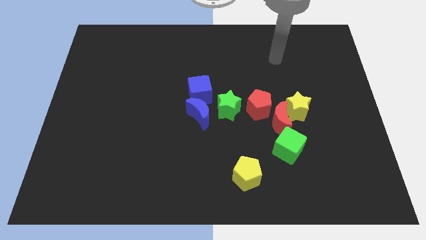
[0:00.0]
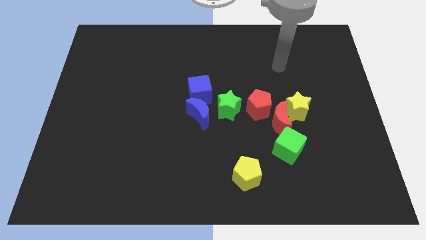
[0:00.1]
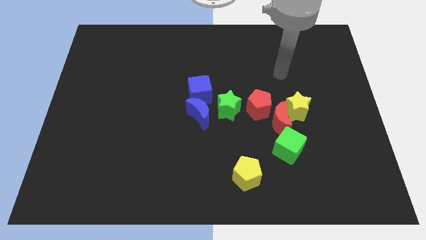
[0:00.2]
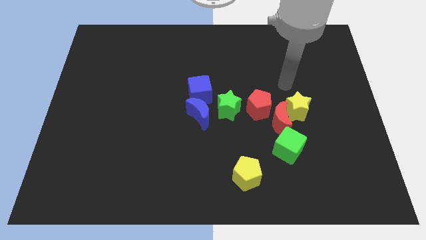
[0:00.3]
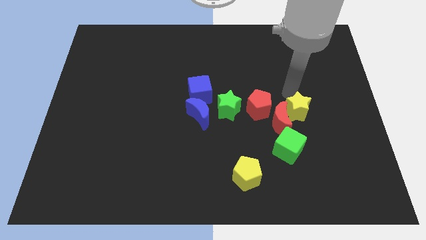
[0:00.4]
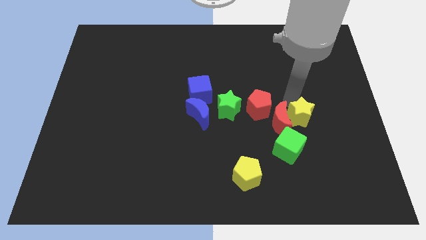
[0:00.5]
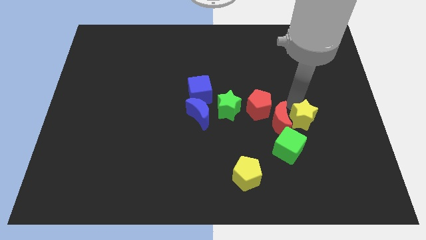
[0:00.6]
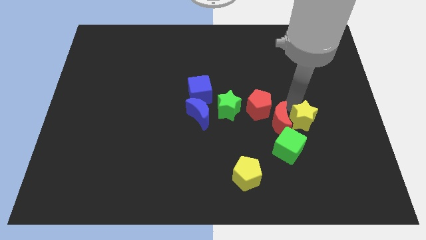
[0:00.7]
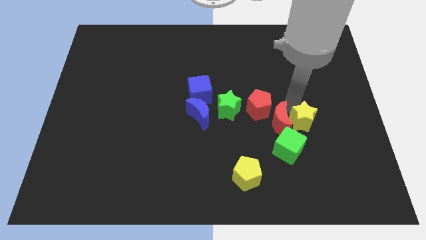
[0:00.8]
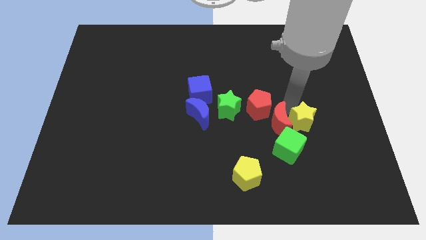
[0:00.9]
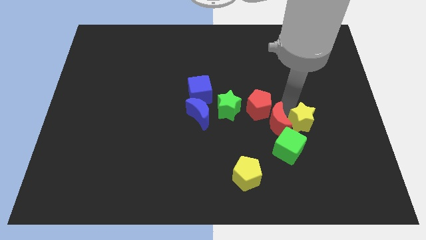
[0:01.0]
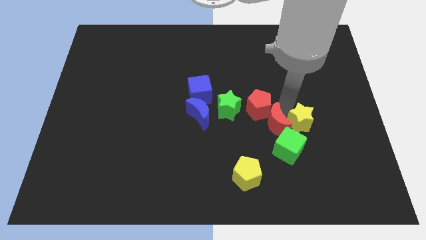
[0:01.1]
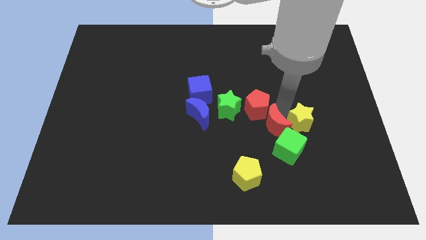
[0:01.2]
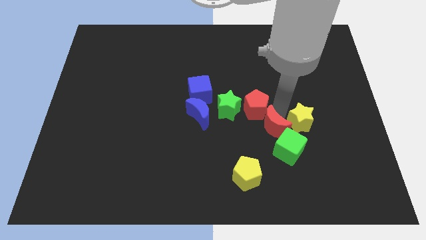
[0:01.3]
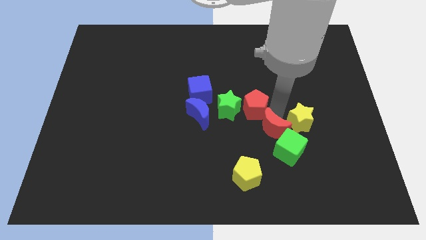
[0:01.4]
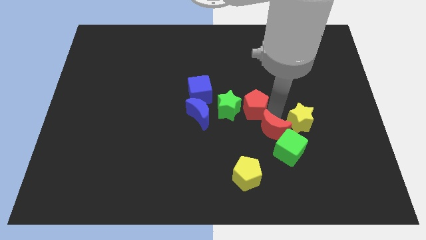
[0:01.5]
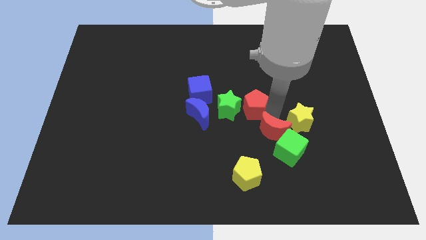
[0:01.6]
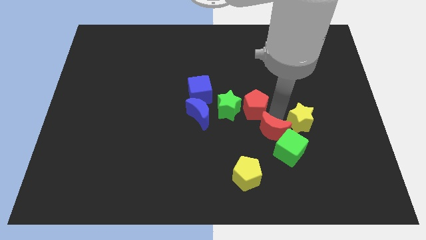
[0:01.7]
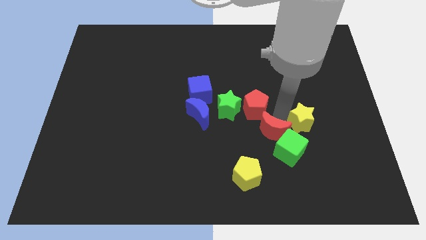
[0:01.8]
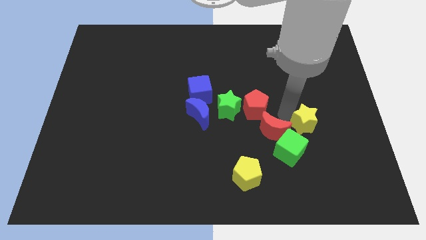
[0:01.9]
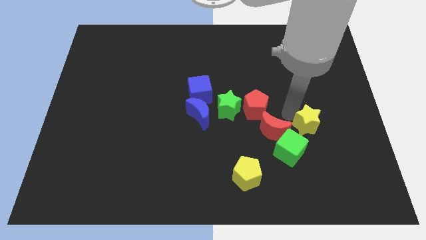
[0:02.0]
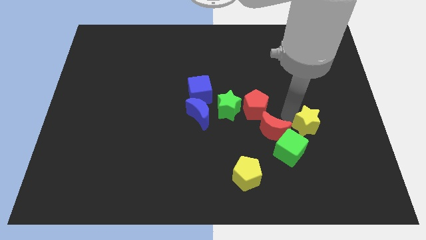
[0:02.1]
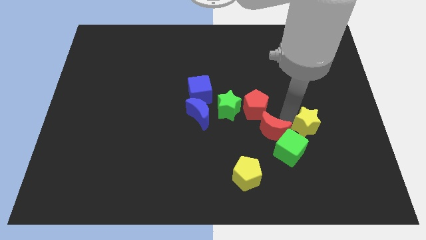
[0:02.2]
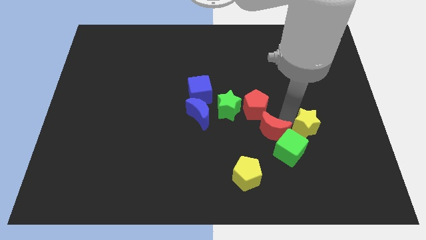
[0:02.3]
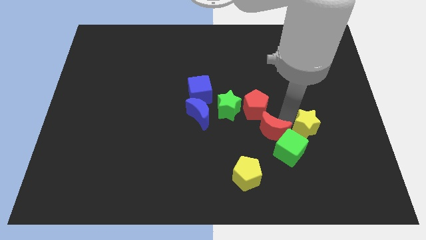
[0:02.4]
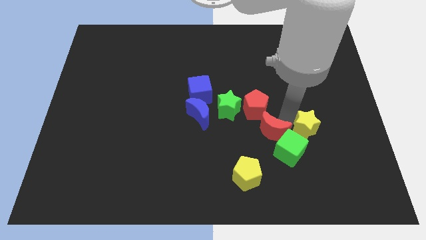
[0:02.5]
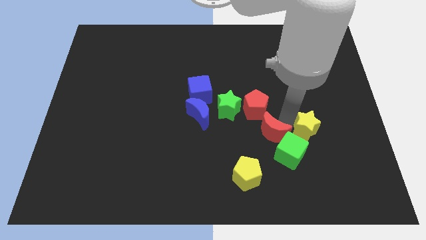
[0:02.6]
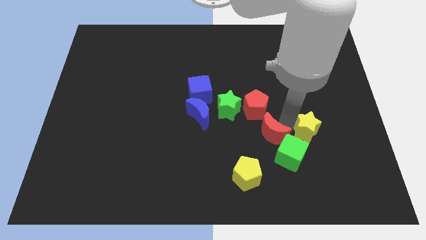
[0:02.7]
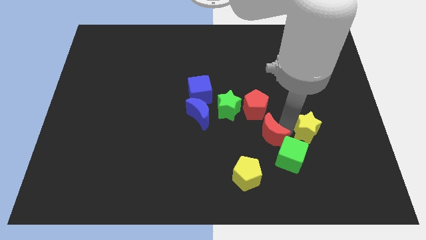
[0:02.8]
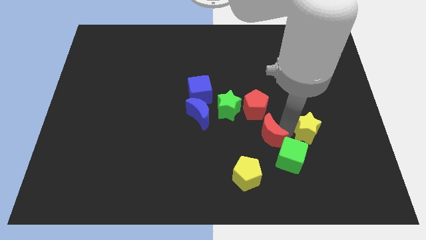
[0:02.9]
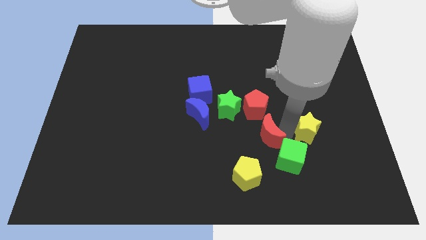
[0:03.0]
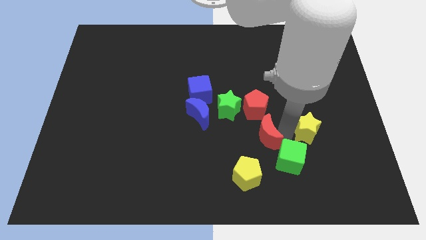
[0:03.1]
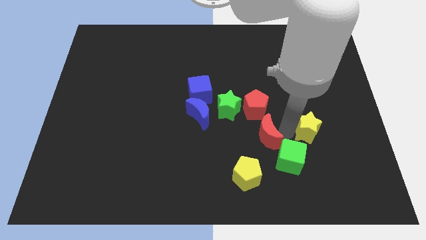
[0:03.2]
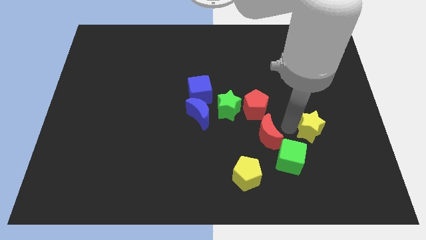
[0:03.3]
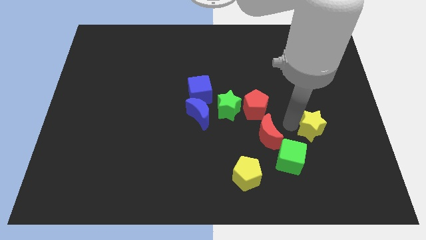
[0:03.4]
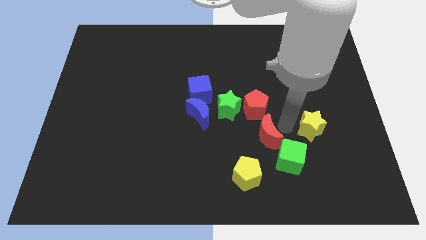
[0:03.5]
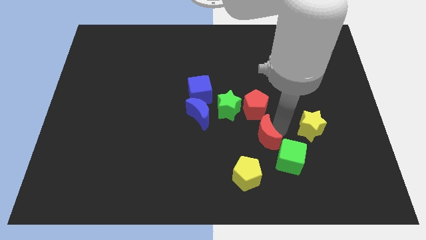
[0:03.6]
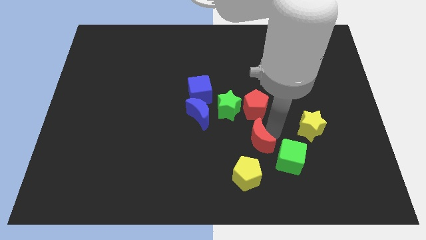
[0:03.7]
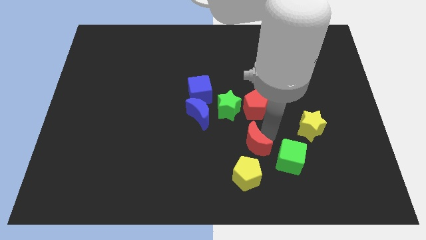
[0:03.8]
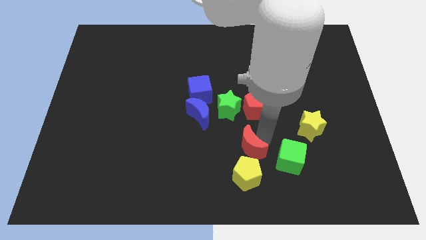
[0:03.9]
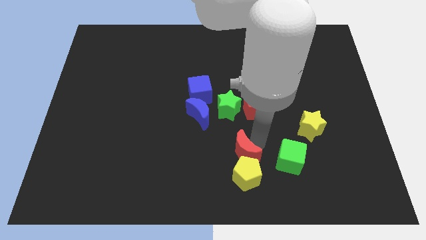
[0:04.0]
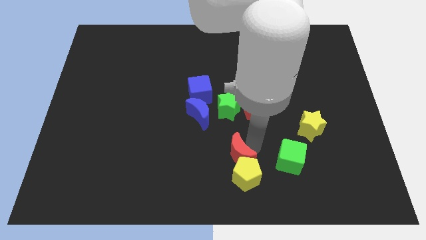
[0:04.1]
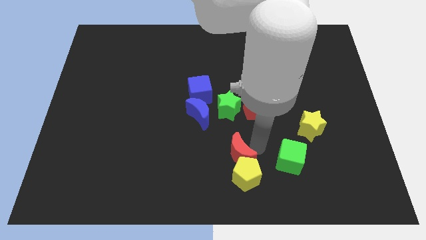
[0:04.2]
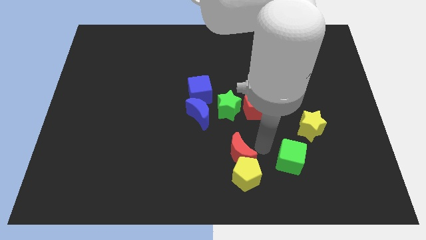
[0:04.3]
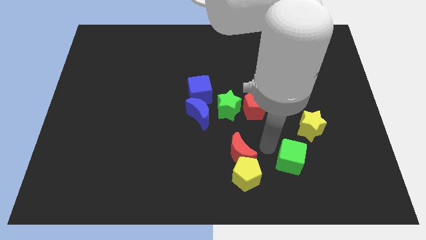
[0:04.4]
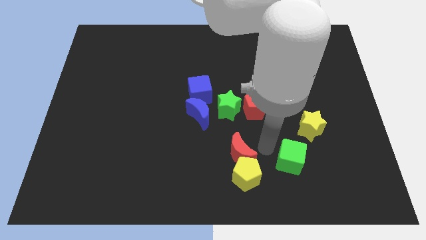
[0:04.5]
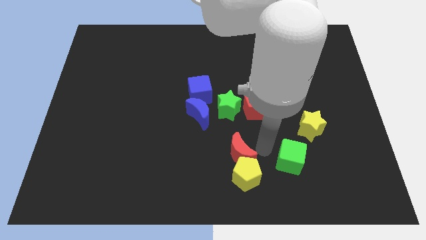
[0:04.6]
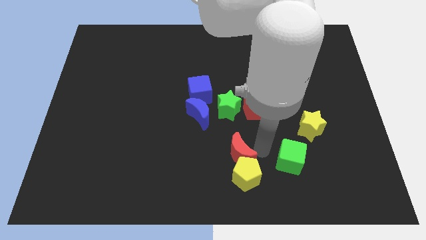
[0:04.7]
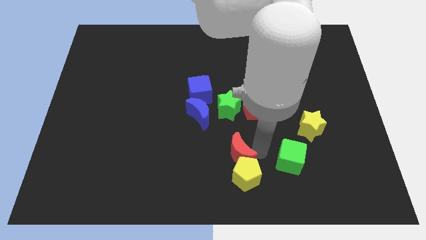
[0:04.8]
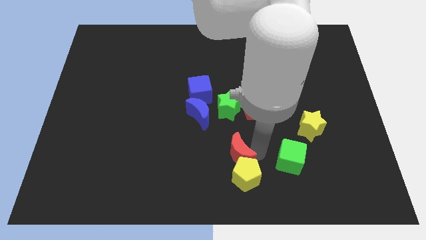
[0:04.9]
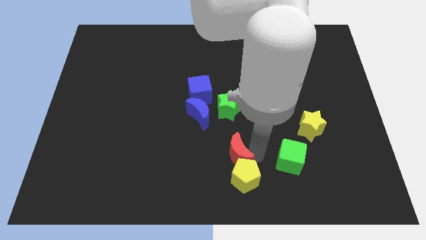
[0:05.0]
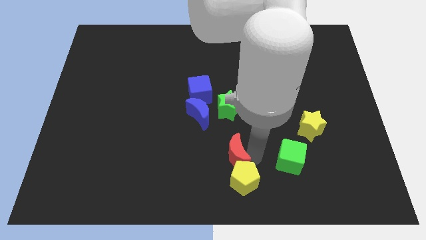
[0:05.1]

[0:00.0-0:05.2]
slide the red moon to the bottom side

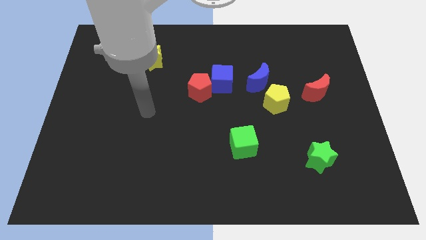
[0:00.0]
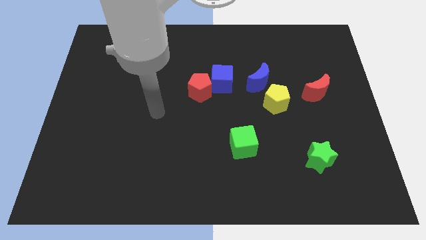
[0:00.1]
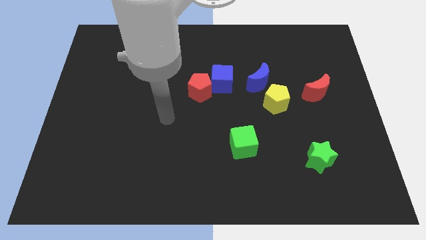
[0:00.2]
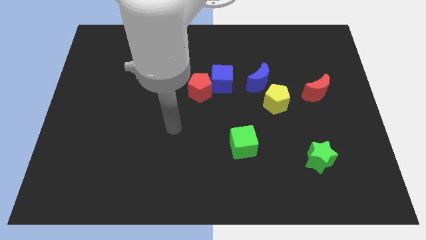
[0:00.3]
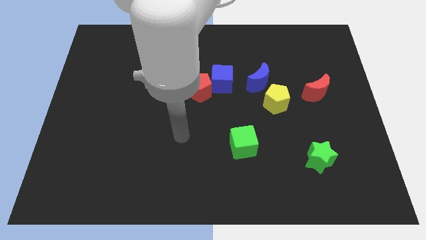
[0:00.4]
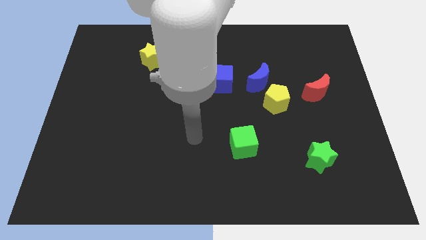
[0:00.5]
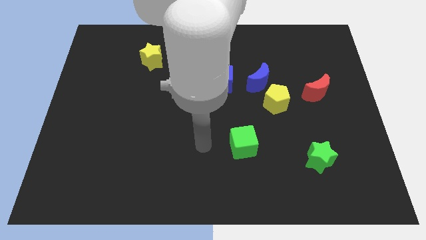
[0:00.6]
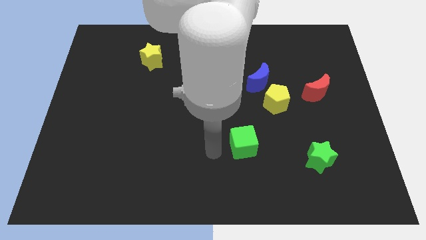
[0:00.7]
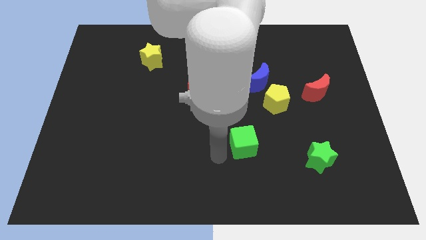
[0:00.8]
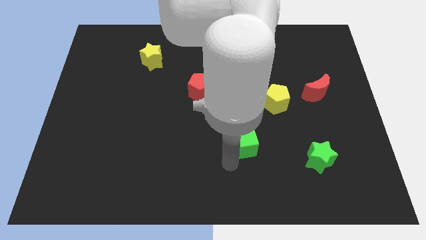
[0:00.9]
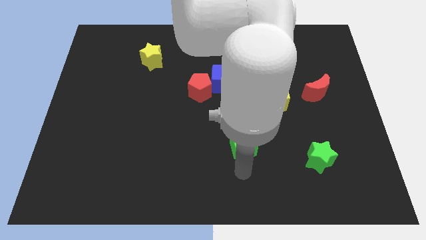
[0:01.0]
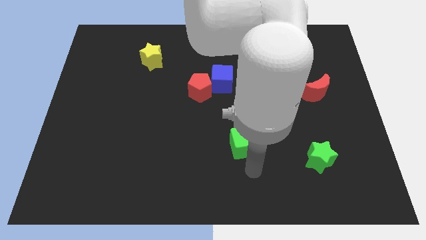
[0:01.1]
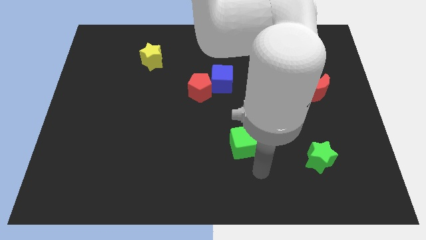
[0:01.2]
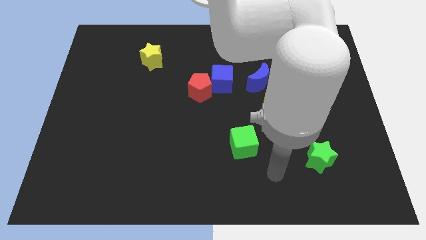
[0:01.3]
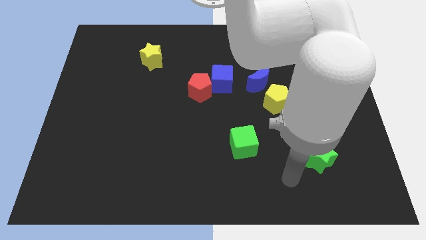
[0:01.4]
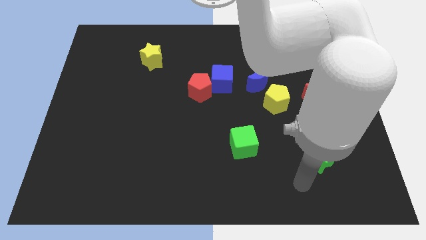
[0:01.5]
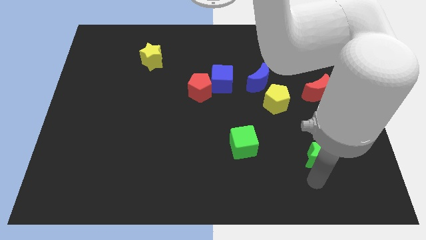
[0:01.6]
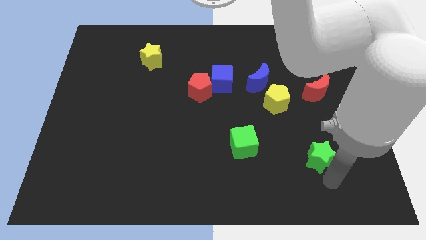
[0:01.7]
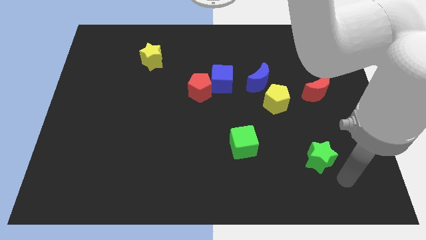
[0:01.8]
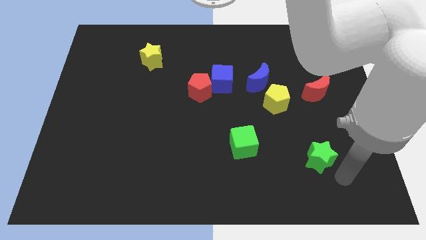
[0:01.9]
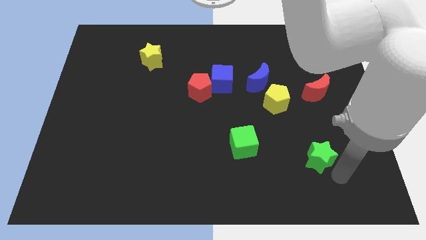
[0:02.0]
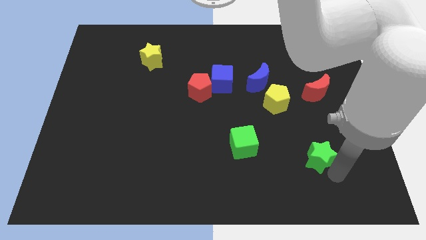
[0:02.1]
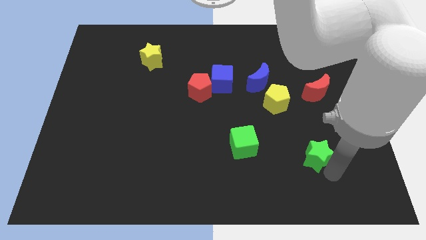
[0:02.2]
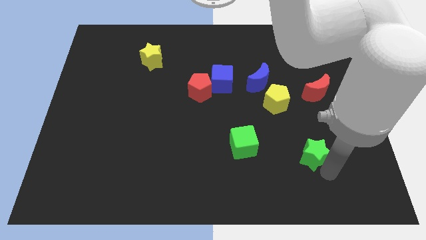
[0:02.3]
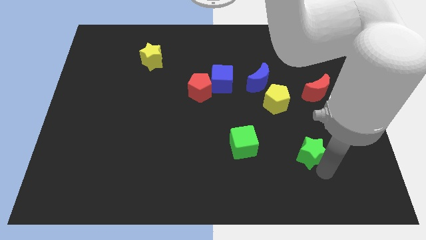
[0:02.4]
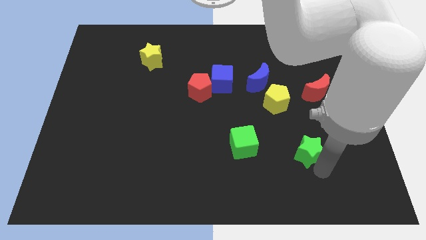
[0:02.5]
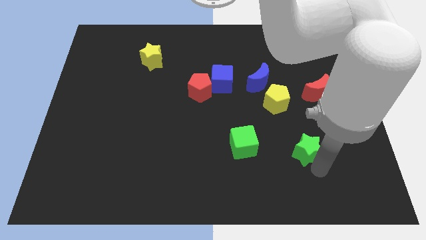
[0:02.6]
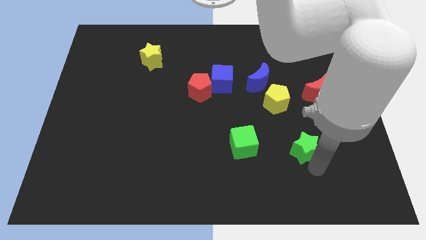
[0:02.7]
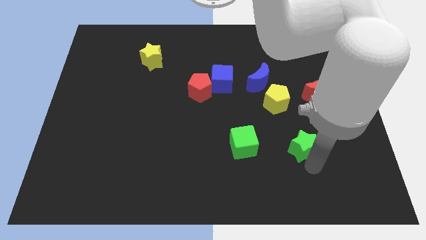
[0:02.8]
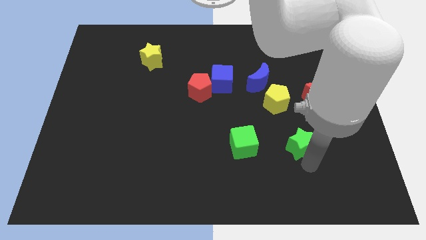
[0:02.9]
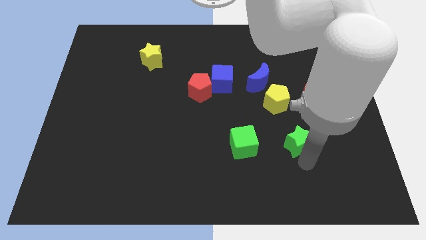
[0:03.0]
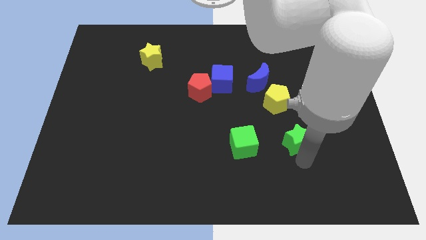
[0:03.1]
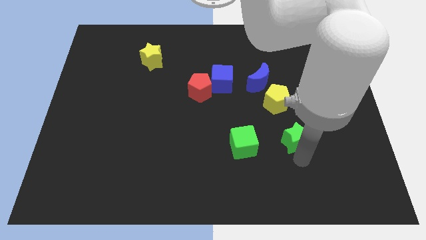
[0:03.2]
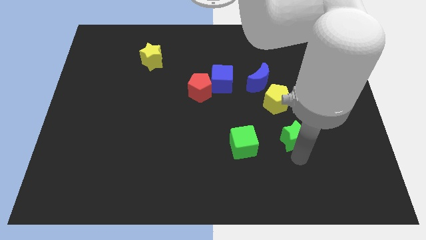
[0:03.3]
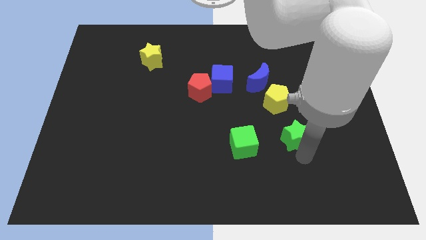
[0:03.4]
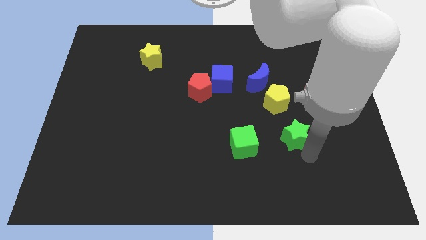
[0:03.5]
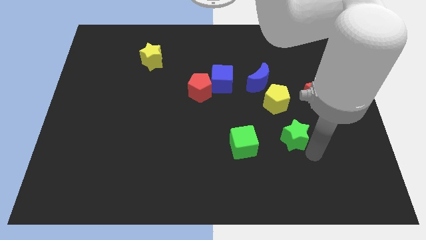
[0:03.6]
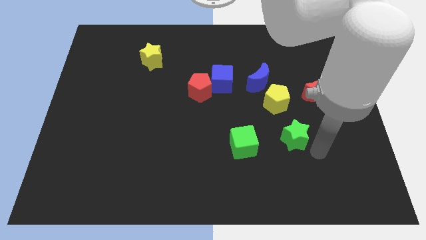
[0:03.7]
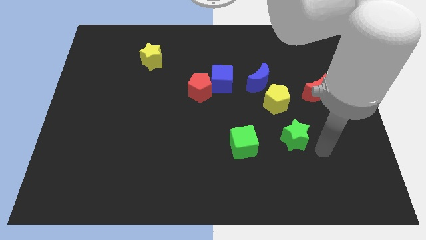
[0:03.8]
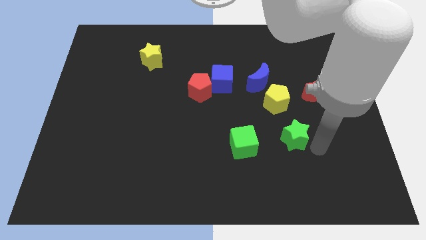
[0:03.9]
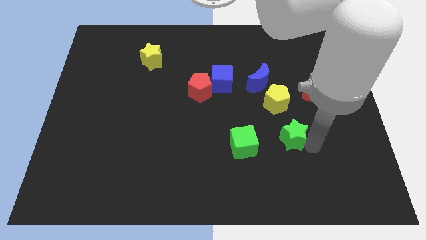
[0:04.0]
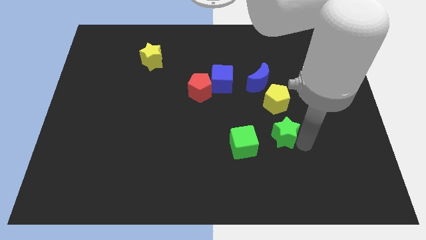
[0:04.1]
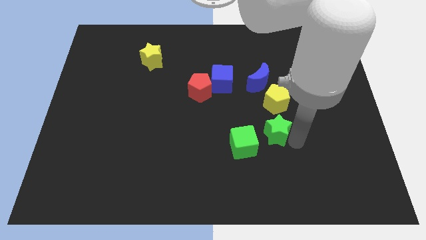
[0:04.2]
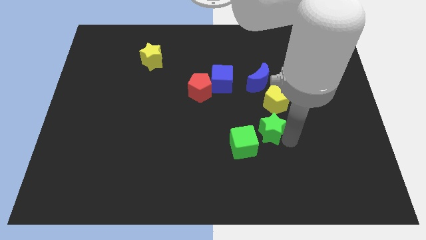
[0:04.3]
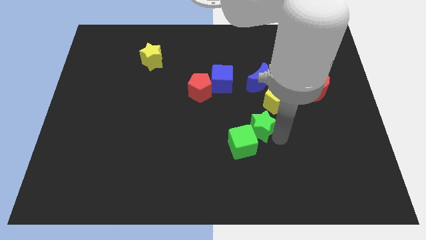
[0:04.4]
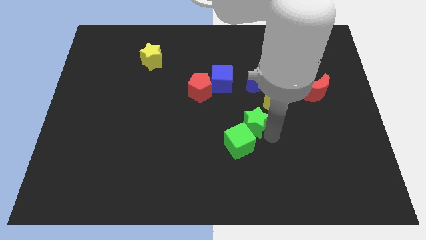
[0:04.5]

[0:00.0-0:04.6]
slide the green star to the middle of the board
